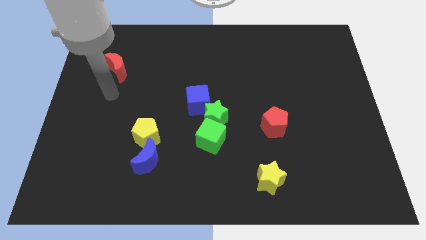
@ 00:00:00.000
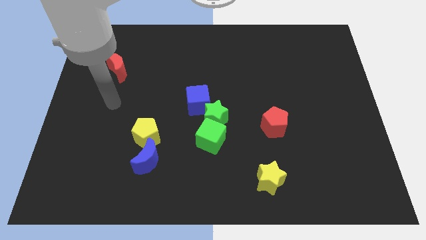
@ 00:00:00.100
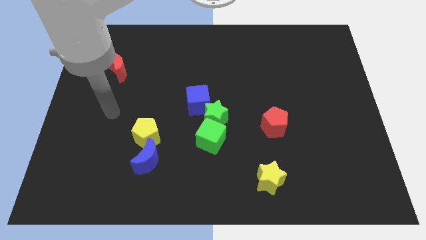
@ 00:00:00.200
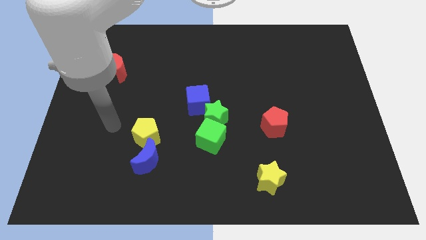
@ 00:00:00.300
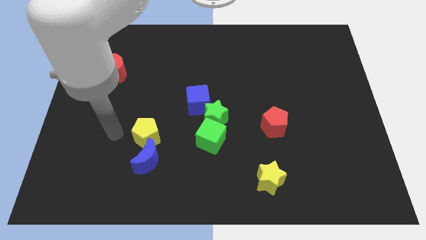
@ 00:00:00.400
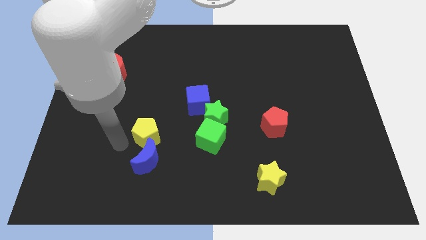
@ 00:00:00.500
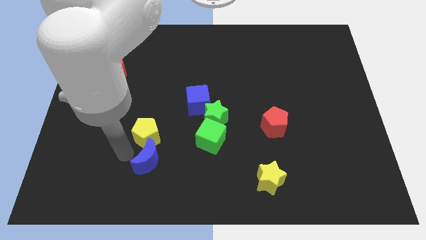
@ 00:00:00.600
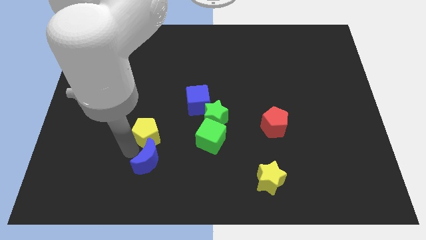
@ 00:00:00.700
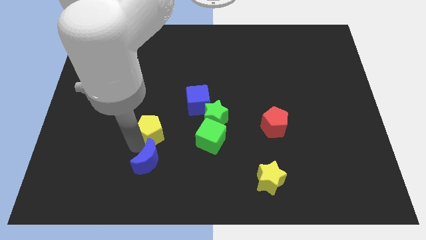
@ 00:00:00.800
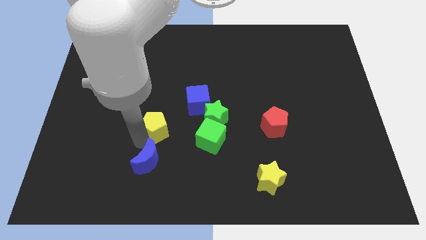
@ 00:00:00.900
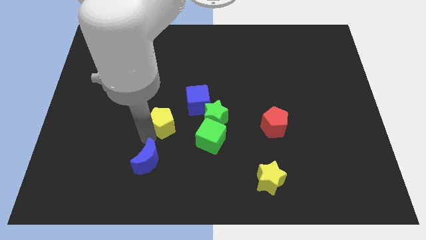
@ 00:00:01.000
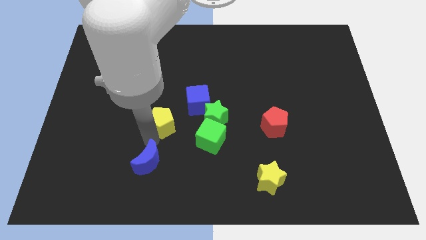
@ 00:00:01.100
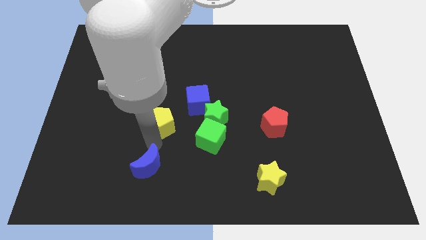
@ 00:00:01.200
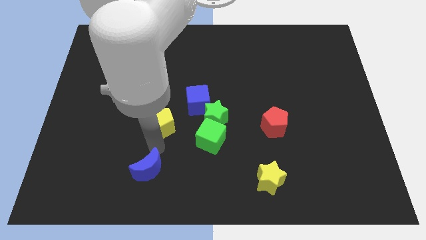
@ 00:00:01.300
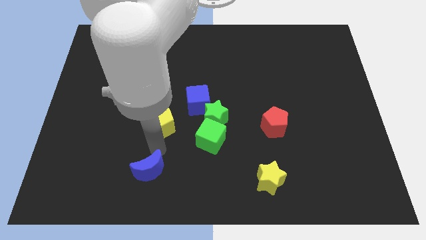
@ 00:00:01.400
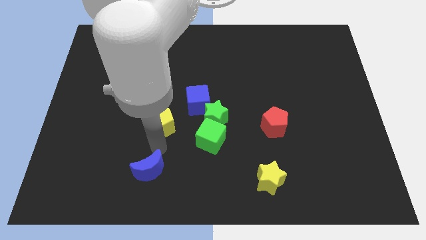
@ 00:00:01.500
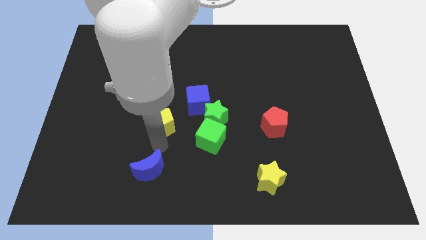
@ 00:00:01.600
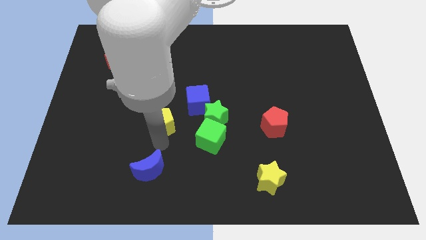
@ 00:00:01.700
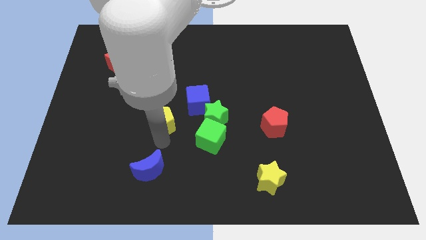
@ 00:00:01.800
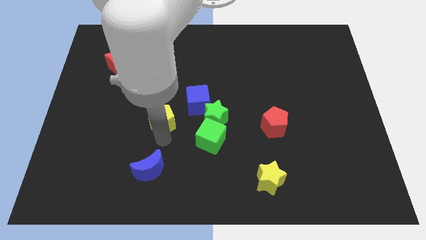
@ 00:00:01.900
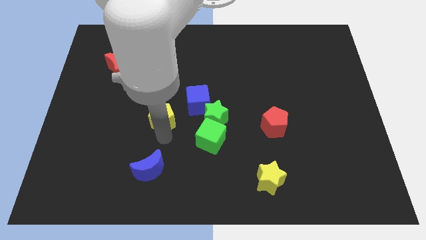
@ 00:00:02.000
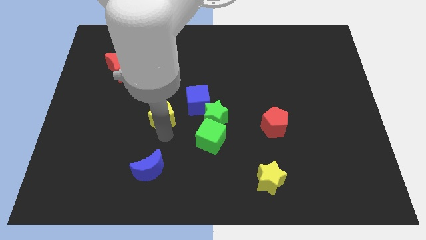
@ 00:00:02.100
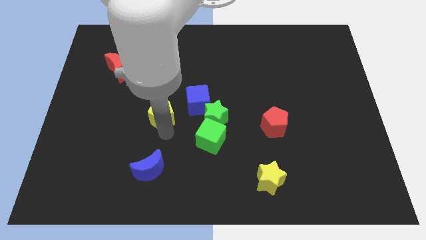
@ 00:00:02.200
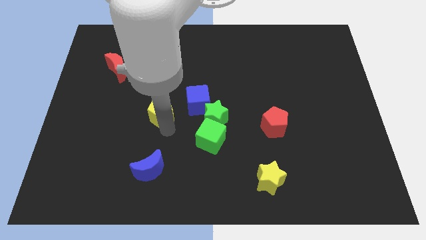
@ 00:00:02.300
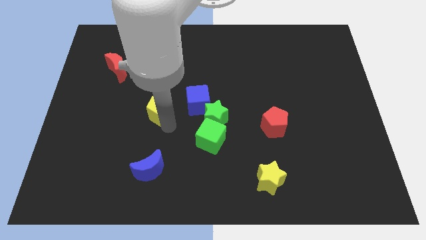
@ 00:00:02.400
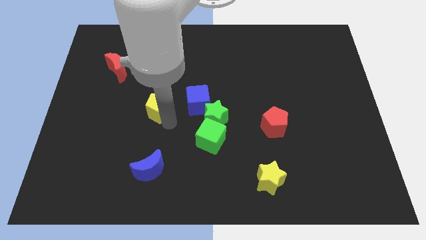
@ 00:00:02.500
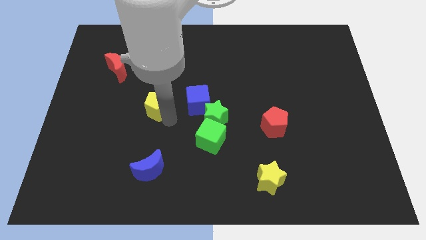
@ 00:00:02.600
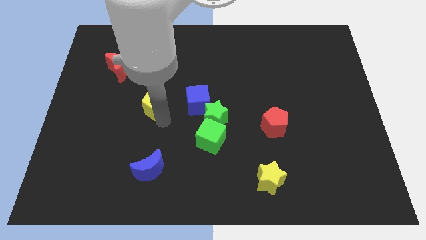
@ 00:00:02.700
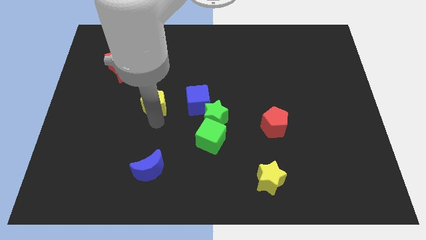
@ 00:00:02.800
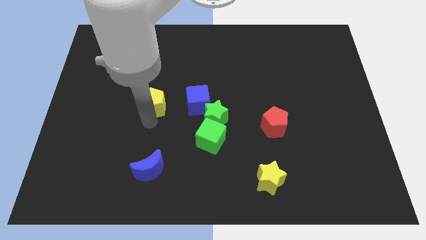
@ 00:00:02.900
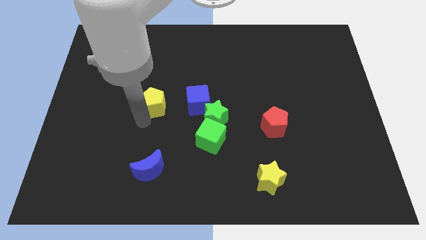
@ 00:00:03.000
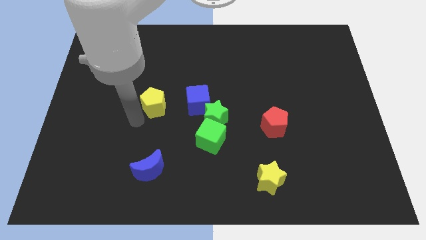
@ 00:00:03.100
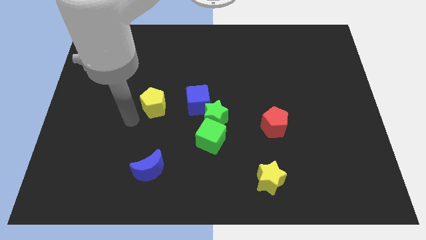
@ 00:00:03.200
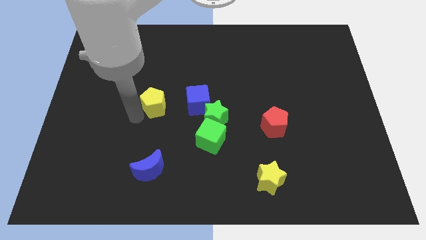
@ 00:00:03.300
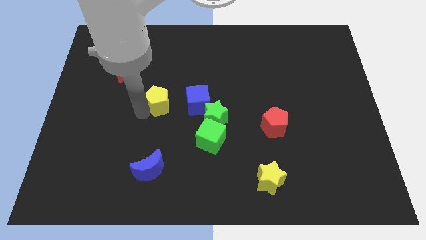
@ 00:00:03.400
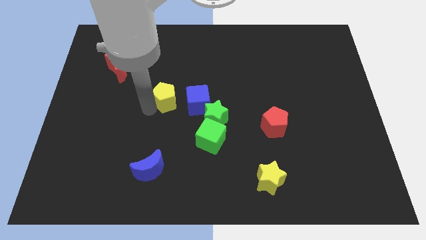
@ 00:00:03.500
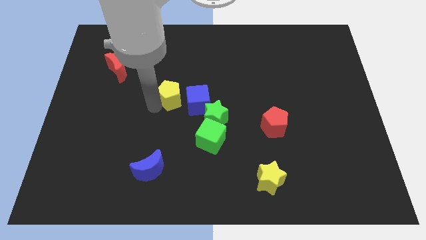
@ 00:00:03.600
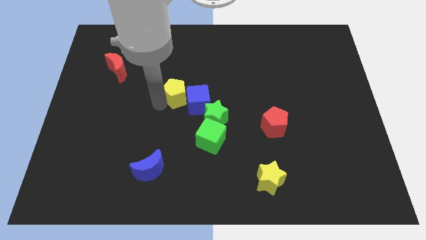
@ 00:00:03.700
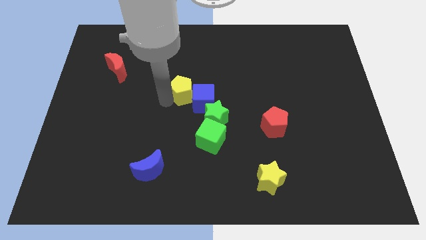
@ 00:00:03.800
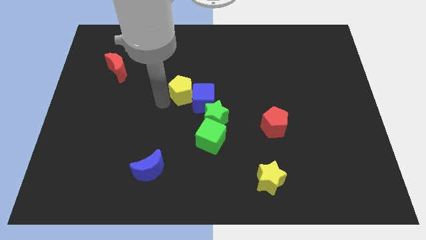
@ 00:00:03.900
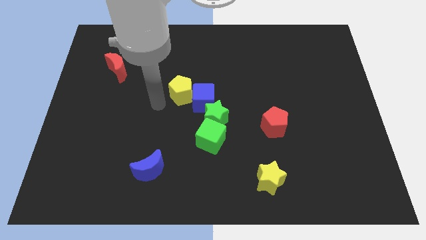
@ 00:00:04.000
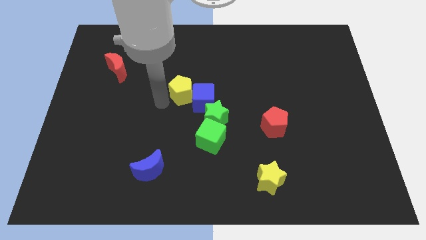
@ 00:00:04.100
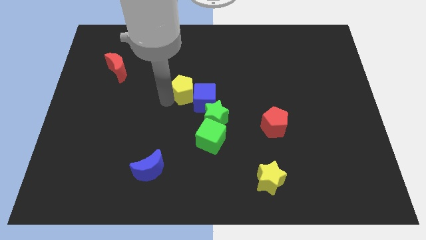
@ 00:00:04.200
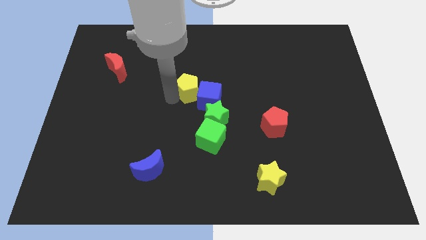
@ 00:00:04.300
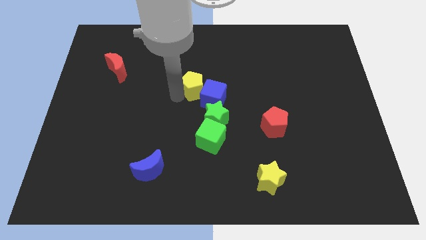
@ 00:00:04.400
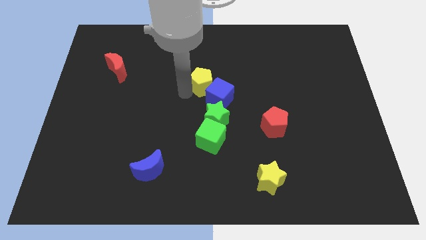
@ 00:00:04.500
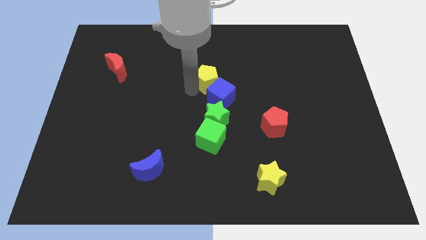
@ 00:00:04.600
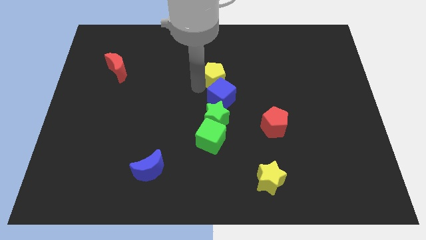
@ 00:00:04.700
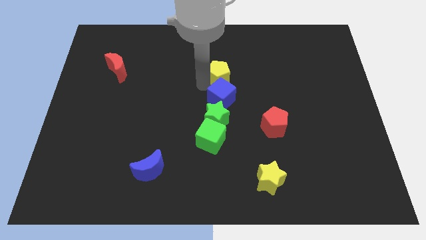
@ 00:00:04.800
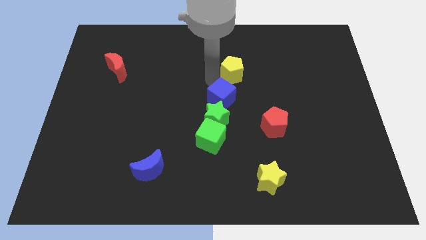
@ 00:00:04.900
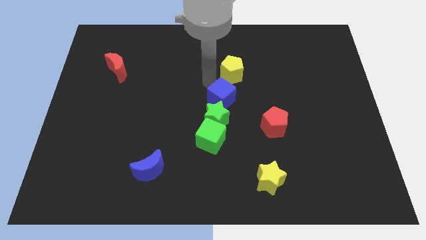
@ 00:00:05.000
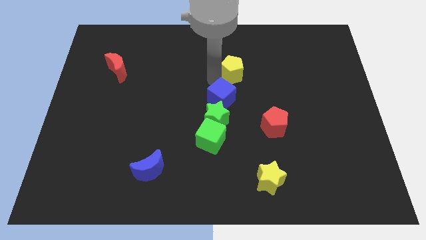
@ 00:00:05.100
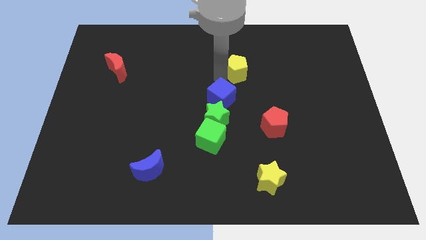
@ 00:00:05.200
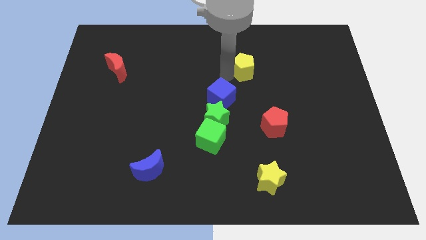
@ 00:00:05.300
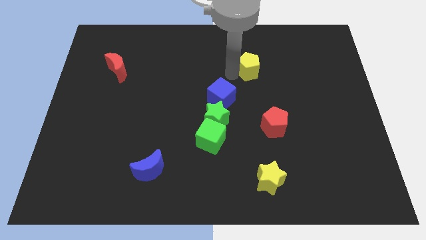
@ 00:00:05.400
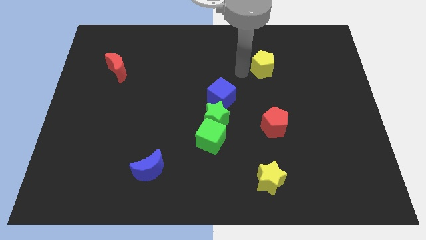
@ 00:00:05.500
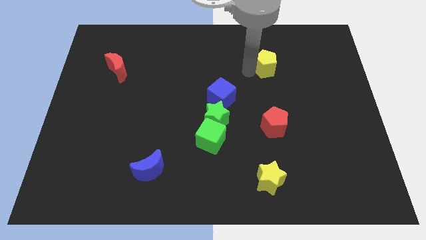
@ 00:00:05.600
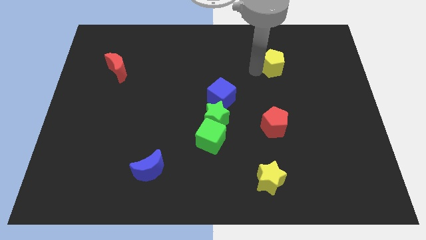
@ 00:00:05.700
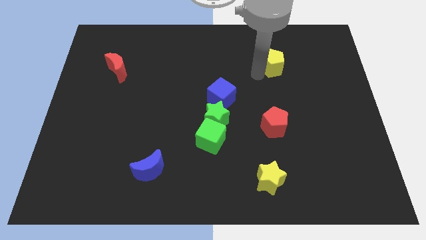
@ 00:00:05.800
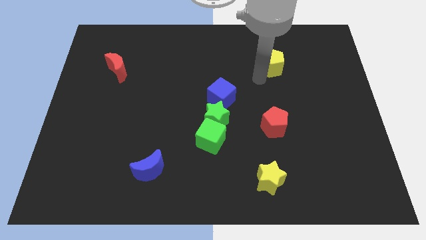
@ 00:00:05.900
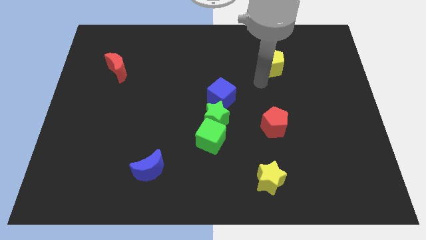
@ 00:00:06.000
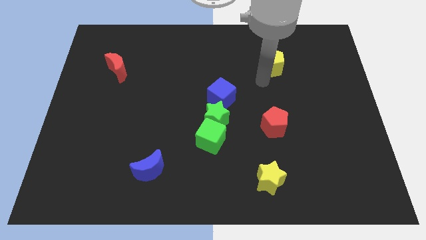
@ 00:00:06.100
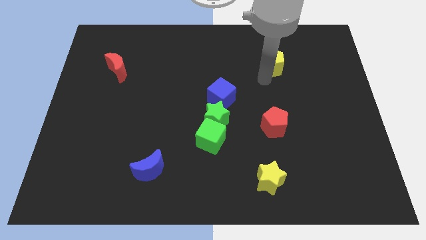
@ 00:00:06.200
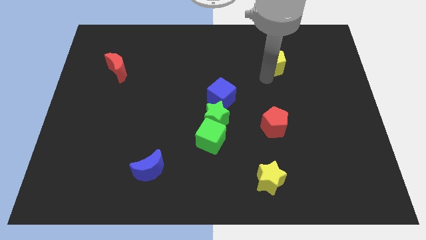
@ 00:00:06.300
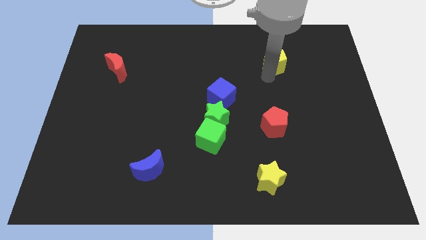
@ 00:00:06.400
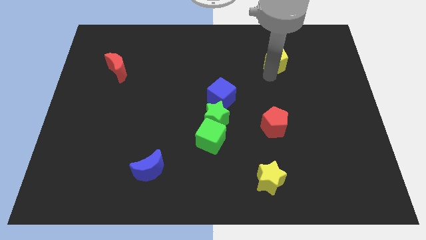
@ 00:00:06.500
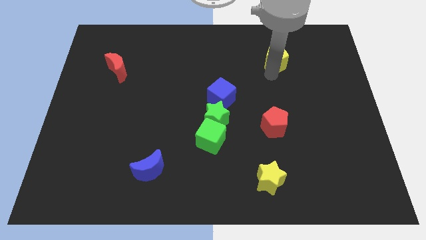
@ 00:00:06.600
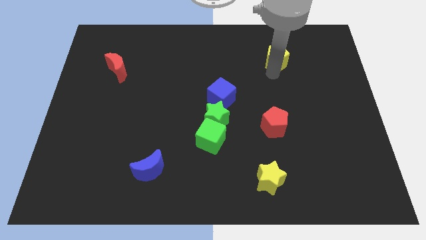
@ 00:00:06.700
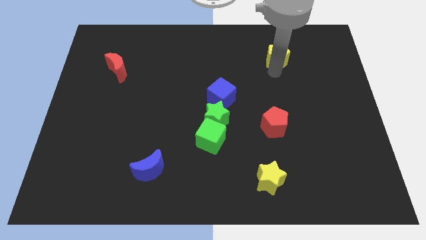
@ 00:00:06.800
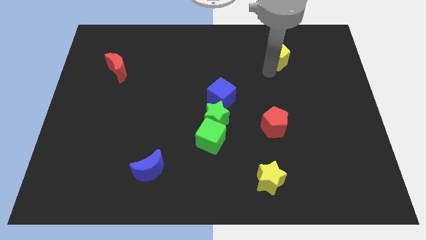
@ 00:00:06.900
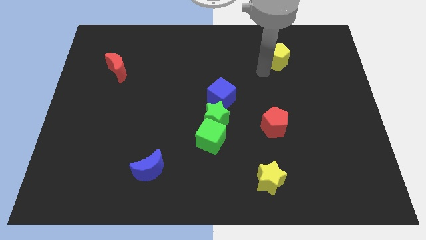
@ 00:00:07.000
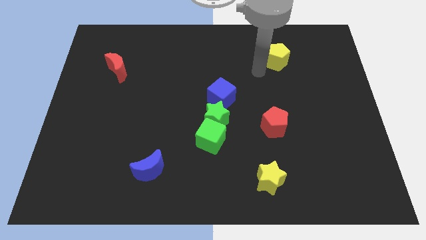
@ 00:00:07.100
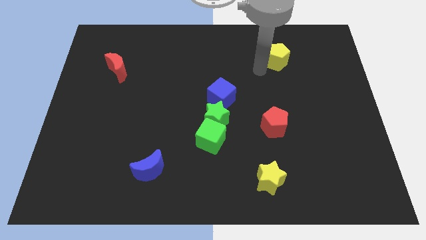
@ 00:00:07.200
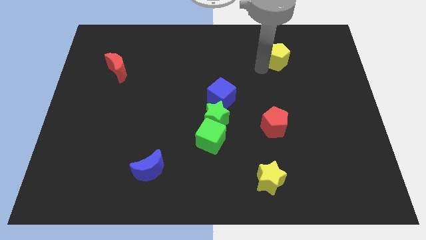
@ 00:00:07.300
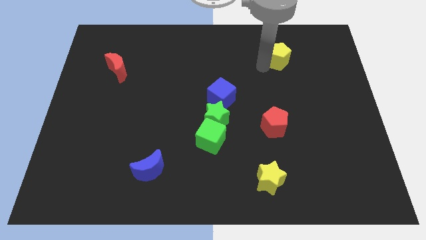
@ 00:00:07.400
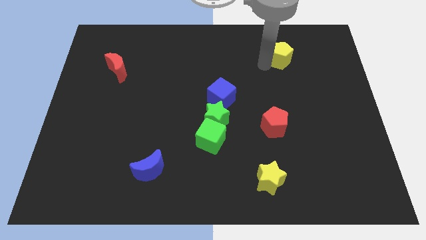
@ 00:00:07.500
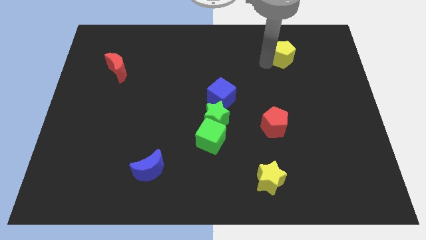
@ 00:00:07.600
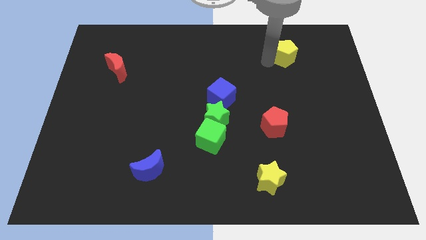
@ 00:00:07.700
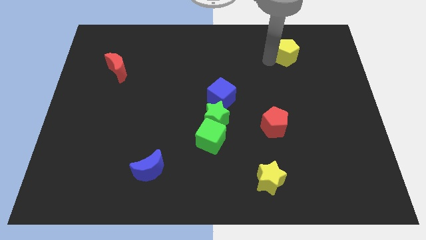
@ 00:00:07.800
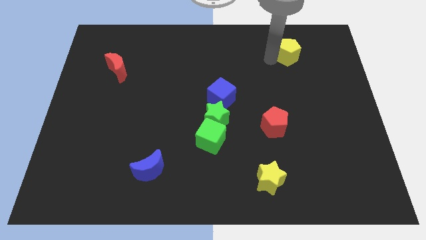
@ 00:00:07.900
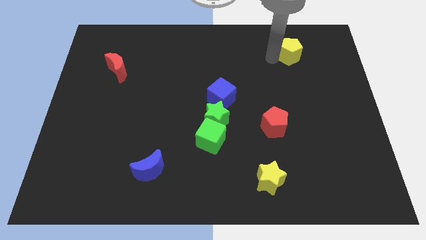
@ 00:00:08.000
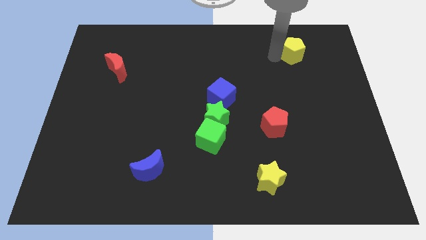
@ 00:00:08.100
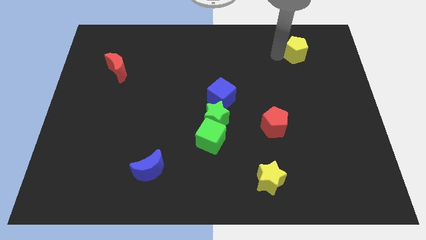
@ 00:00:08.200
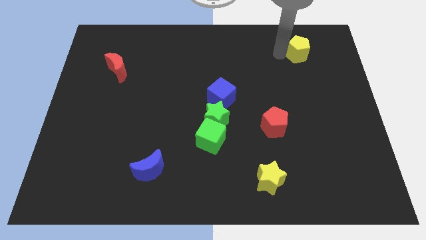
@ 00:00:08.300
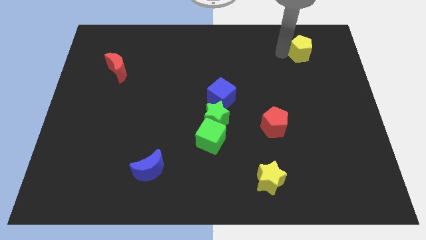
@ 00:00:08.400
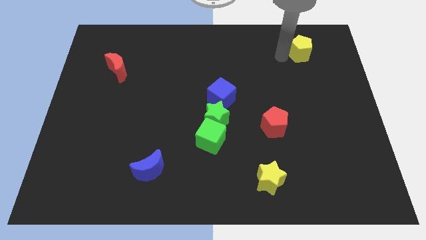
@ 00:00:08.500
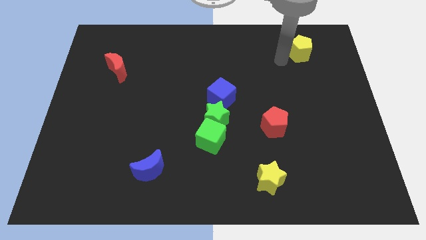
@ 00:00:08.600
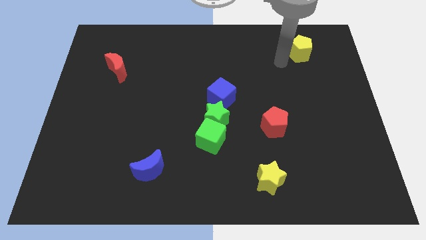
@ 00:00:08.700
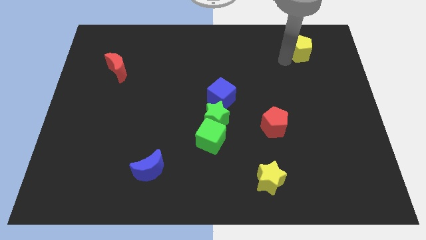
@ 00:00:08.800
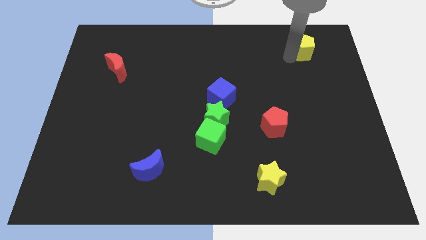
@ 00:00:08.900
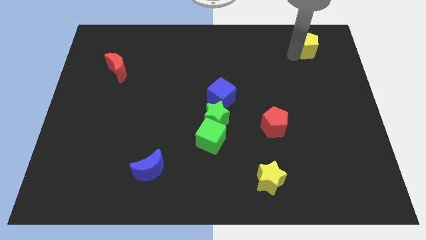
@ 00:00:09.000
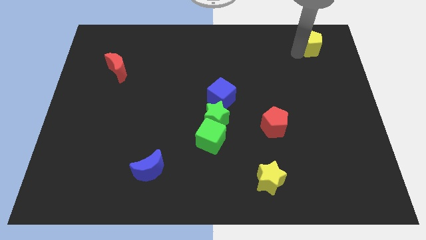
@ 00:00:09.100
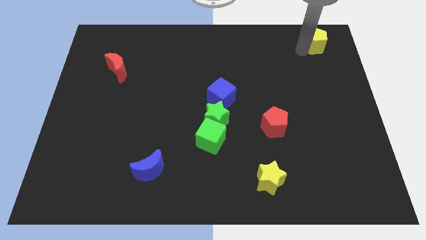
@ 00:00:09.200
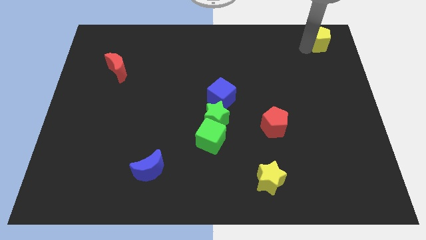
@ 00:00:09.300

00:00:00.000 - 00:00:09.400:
slide the yellow pentagon to the upper right corner
